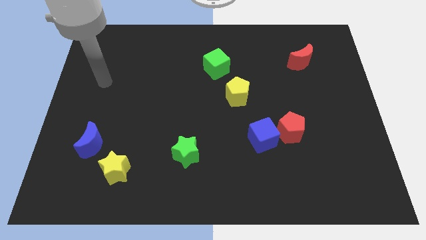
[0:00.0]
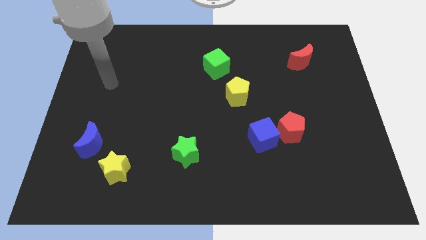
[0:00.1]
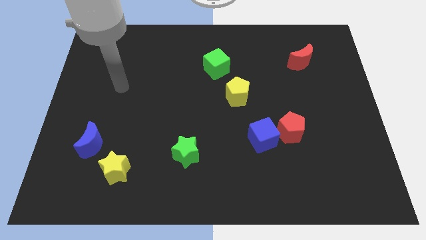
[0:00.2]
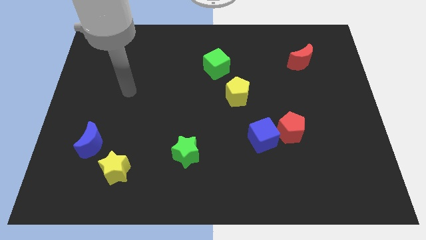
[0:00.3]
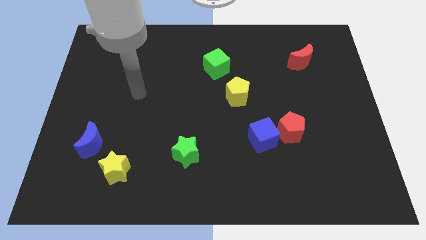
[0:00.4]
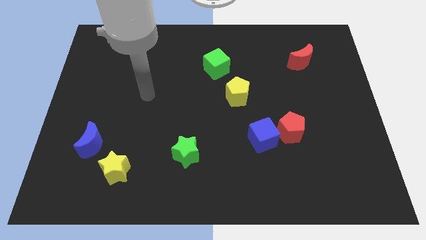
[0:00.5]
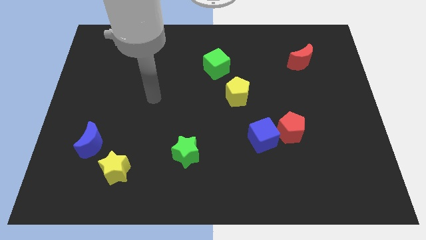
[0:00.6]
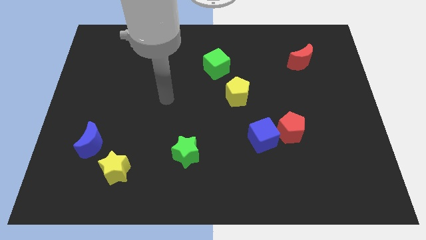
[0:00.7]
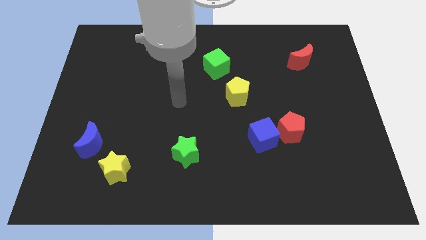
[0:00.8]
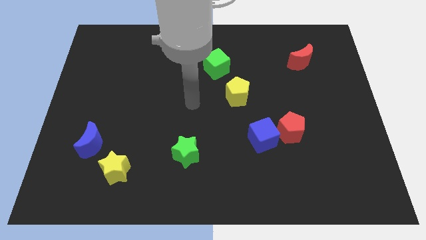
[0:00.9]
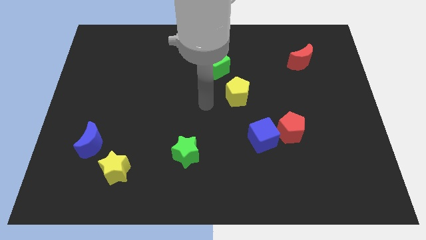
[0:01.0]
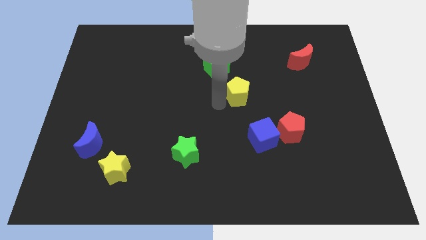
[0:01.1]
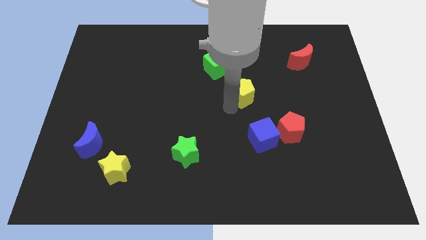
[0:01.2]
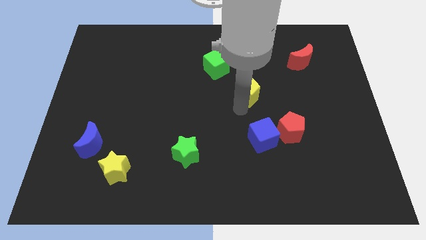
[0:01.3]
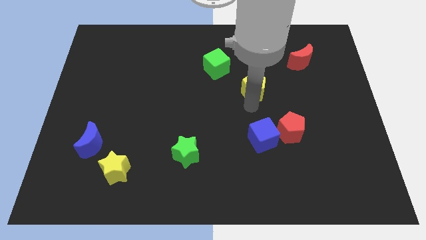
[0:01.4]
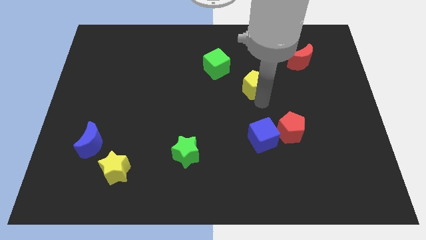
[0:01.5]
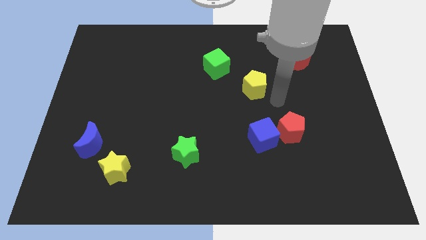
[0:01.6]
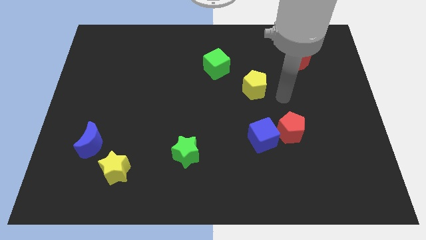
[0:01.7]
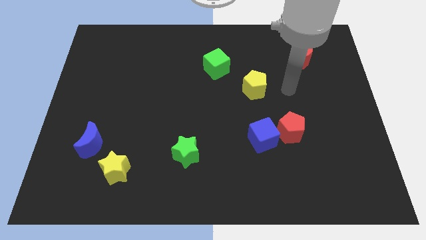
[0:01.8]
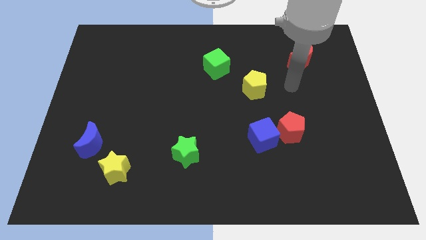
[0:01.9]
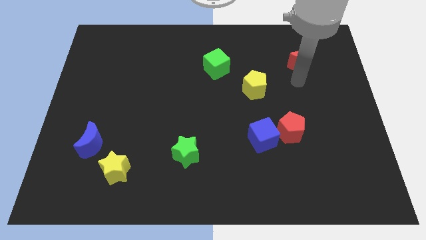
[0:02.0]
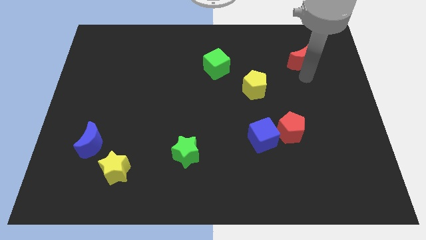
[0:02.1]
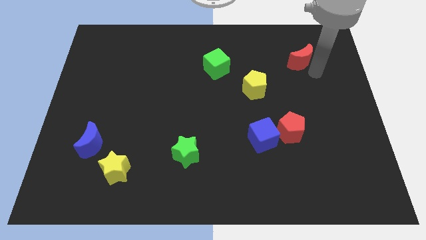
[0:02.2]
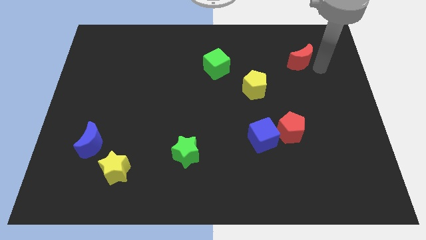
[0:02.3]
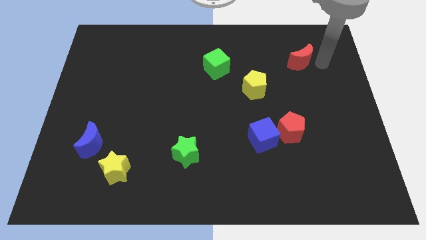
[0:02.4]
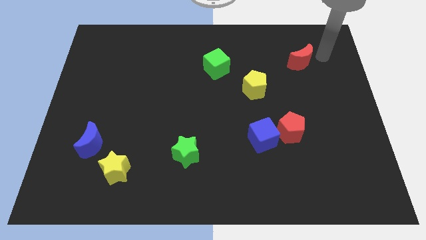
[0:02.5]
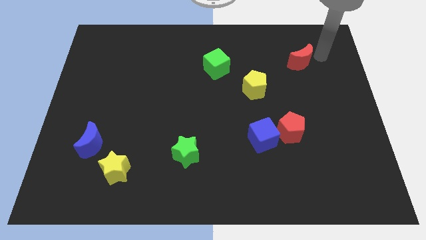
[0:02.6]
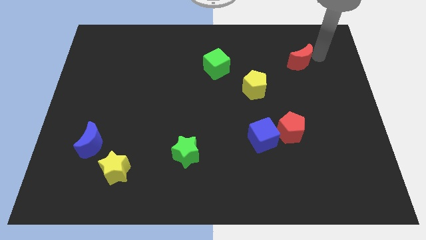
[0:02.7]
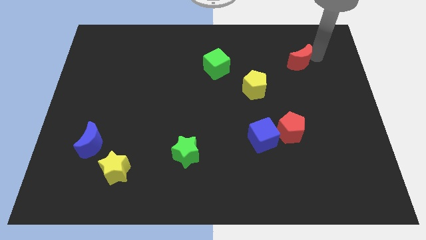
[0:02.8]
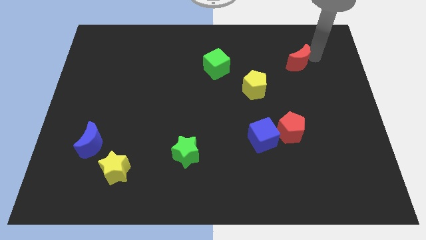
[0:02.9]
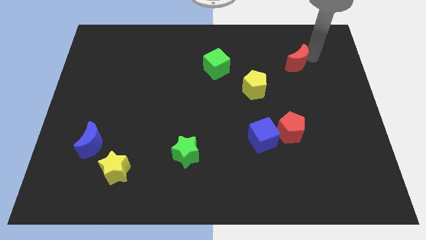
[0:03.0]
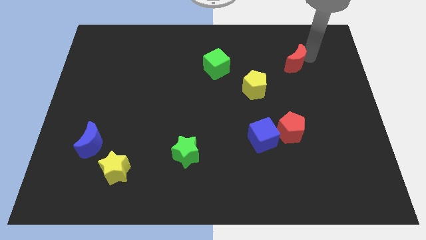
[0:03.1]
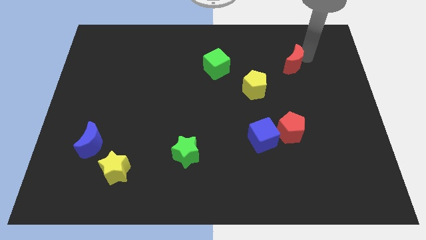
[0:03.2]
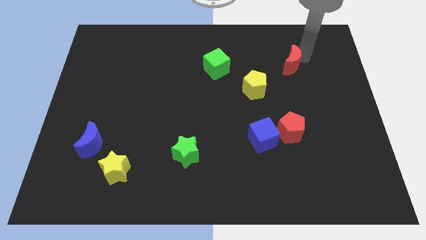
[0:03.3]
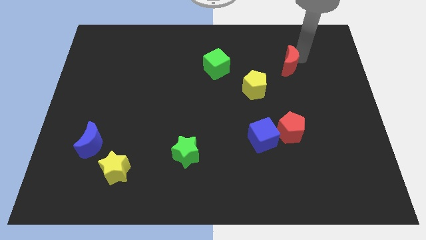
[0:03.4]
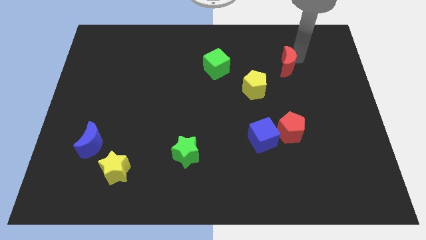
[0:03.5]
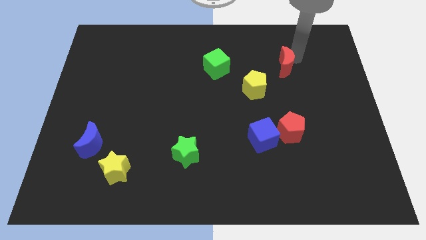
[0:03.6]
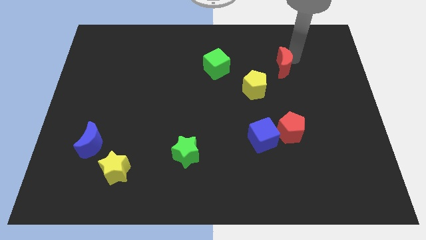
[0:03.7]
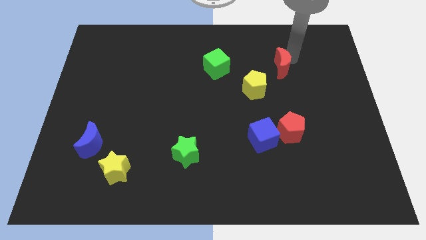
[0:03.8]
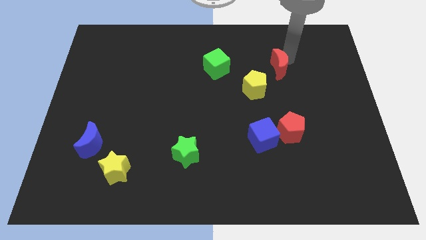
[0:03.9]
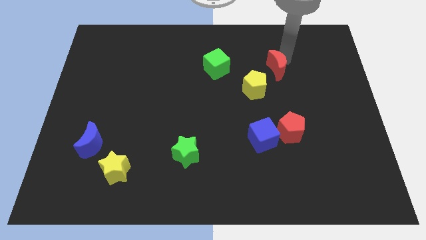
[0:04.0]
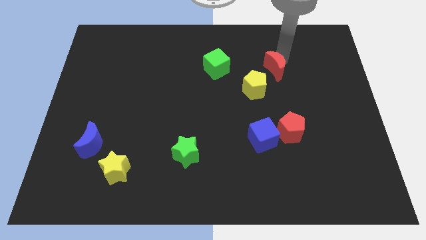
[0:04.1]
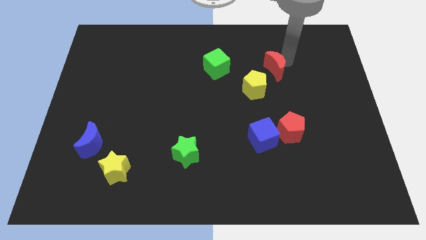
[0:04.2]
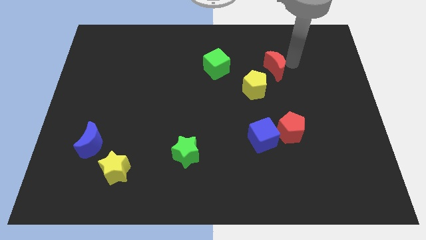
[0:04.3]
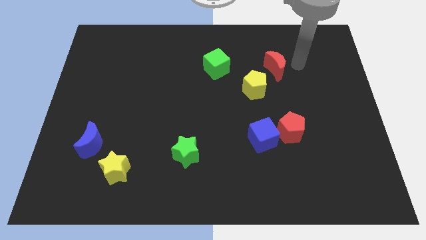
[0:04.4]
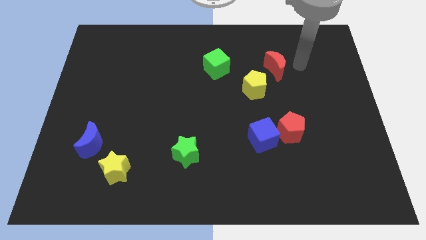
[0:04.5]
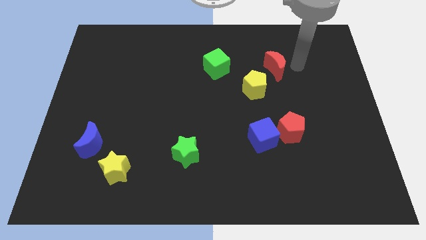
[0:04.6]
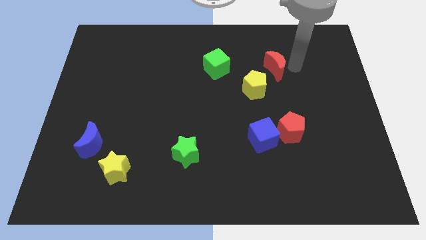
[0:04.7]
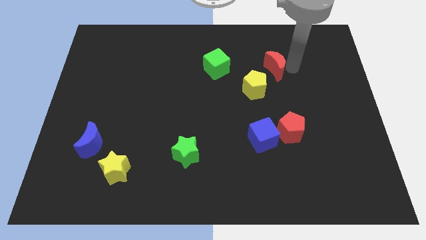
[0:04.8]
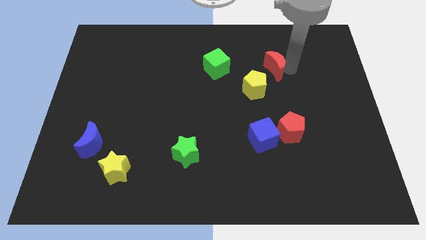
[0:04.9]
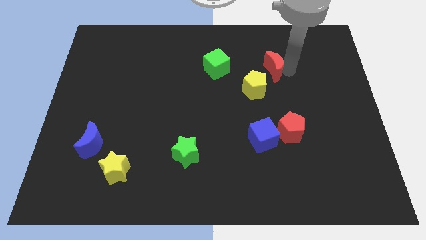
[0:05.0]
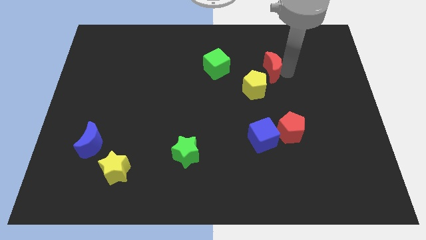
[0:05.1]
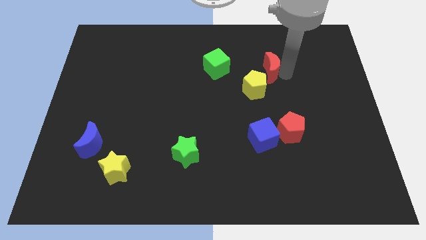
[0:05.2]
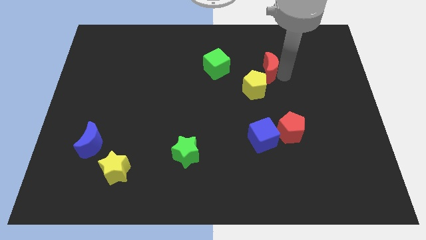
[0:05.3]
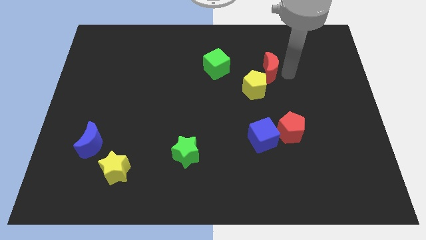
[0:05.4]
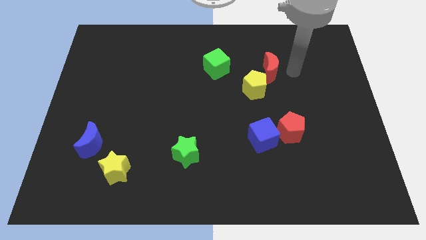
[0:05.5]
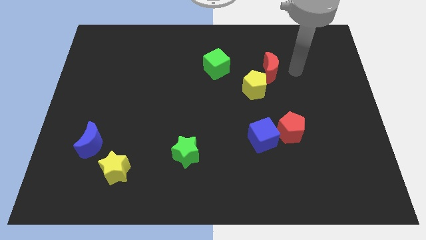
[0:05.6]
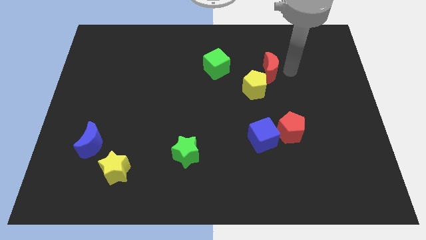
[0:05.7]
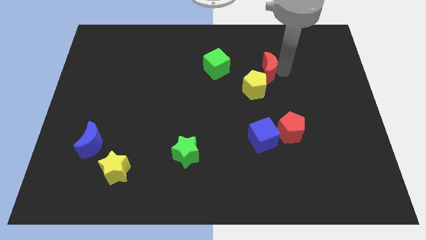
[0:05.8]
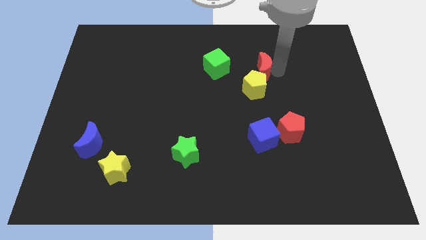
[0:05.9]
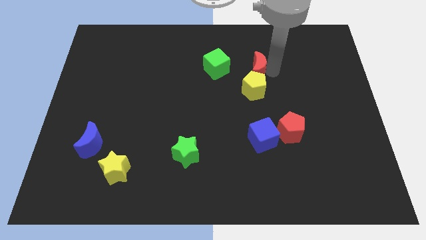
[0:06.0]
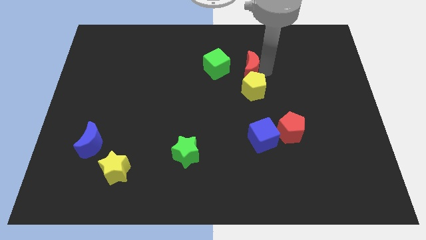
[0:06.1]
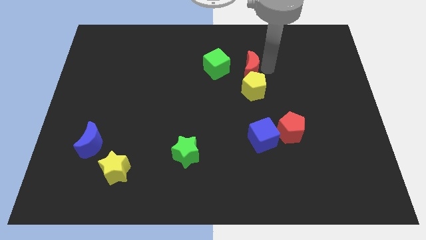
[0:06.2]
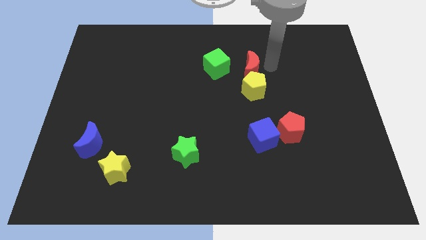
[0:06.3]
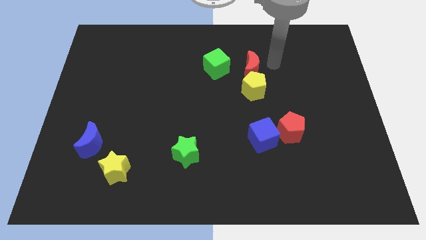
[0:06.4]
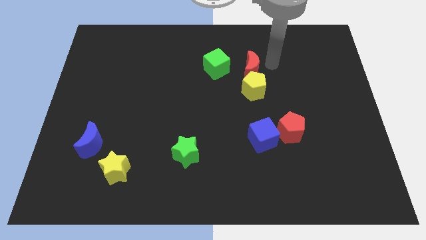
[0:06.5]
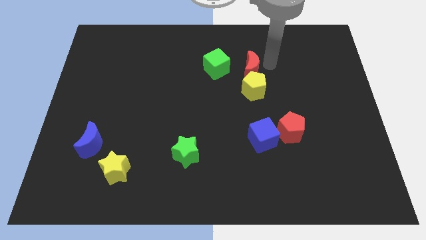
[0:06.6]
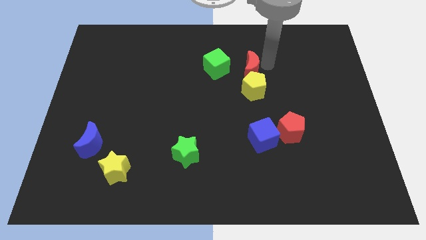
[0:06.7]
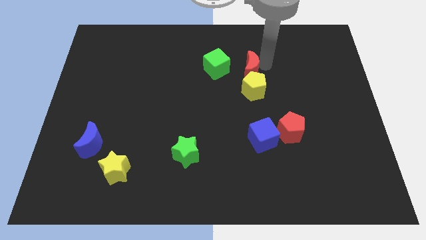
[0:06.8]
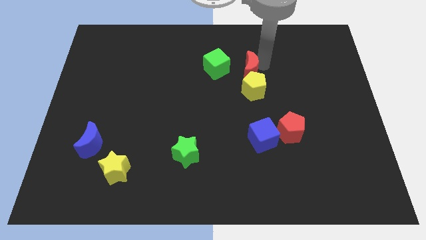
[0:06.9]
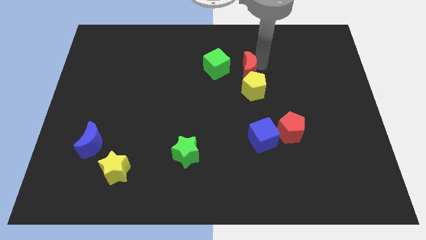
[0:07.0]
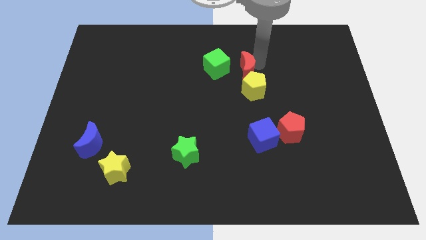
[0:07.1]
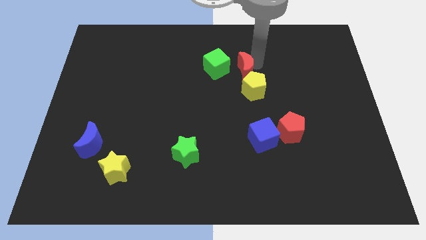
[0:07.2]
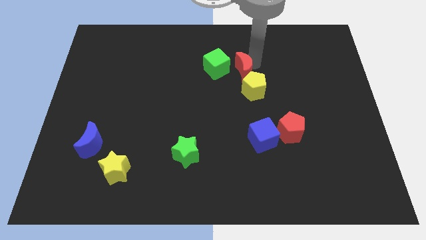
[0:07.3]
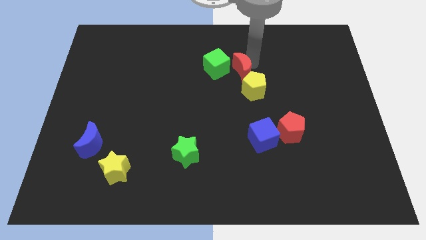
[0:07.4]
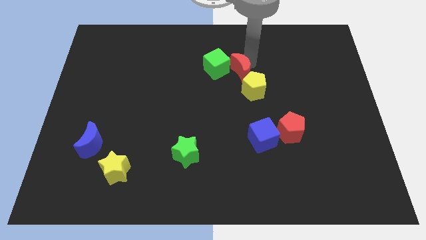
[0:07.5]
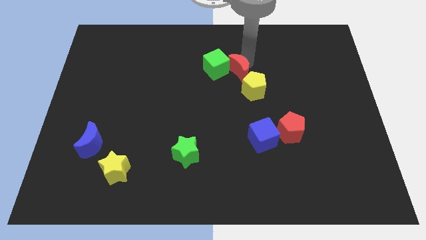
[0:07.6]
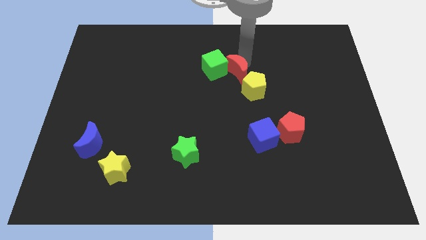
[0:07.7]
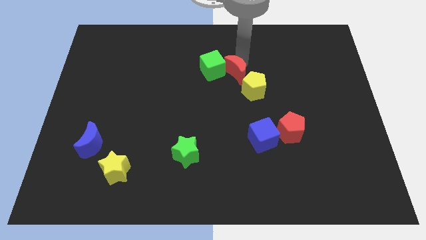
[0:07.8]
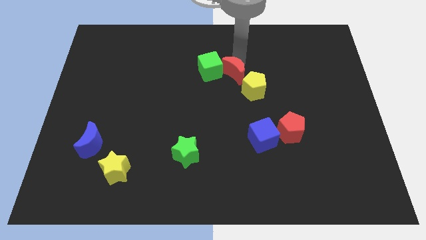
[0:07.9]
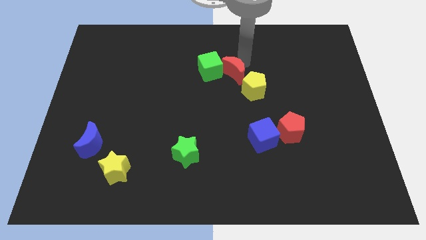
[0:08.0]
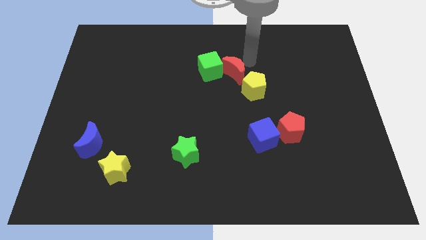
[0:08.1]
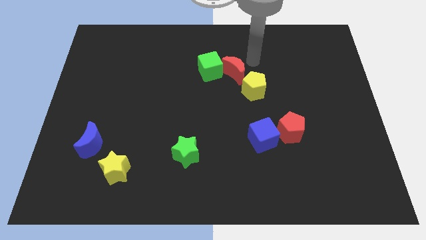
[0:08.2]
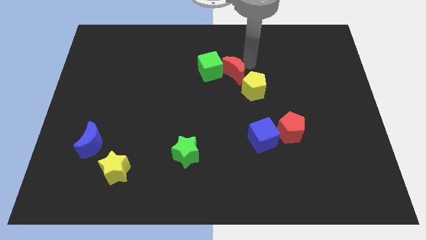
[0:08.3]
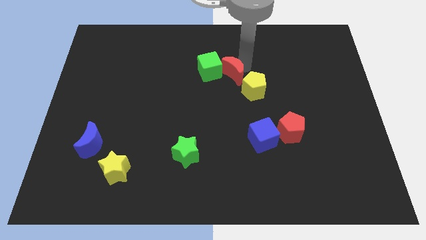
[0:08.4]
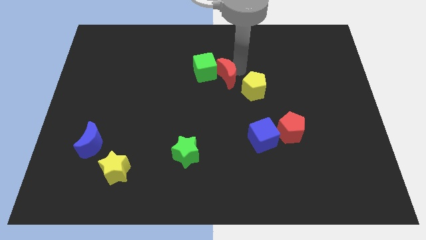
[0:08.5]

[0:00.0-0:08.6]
slide the red moon to the left of the yellow pentagon
